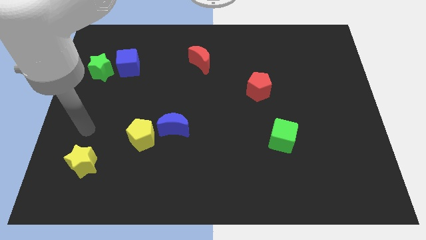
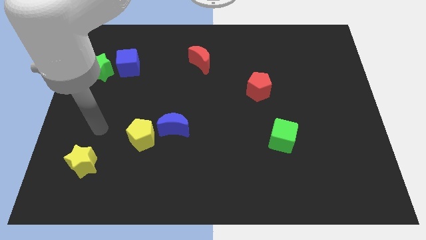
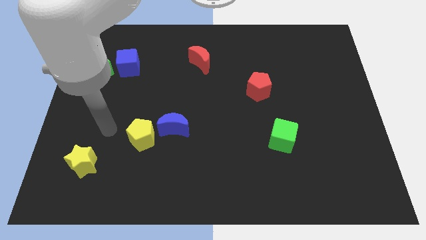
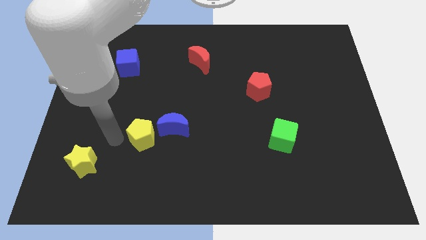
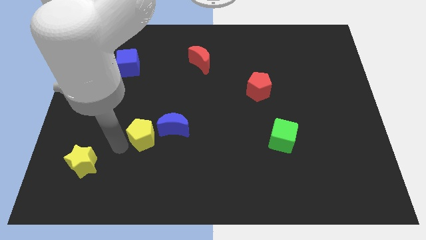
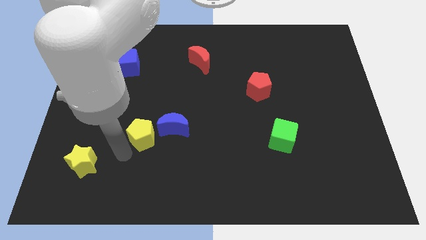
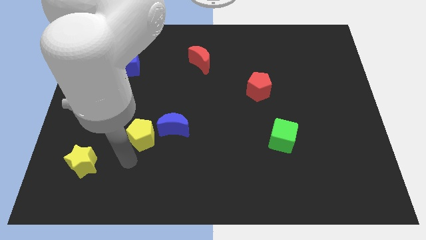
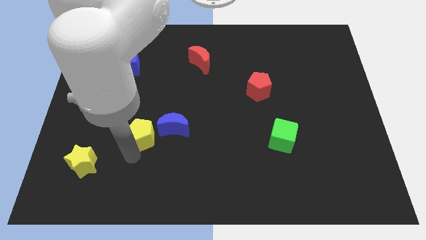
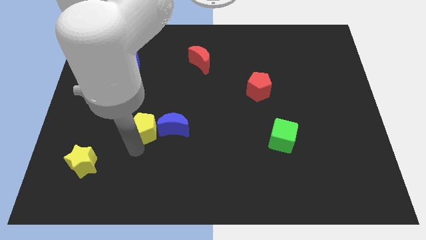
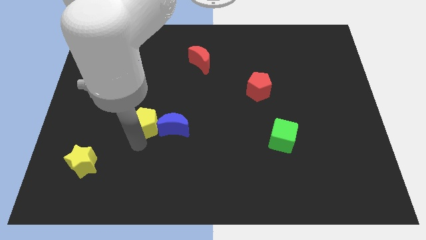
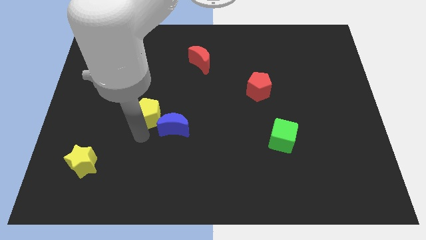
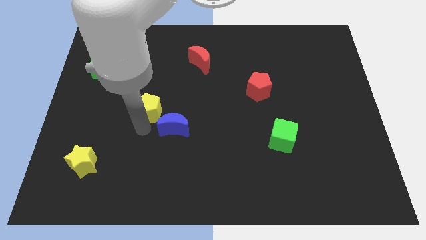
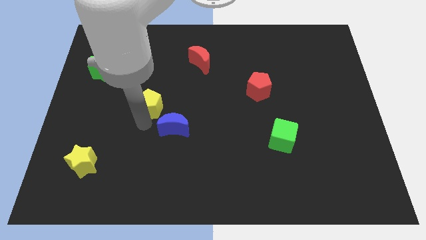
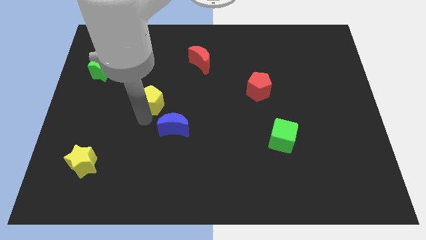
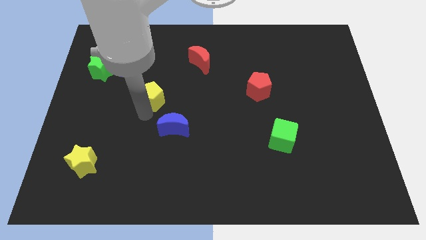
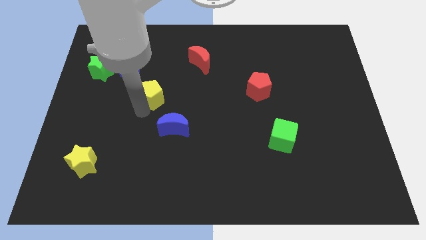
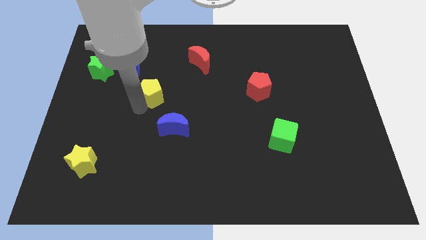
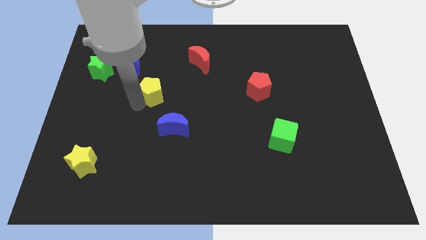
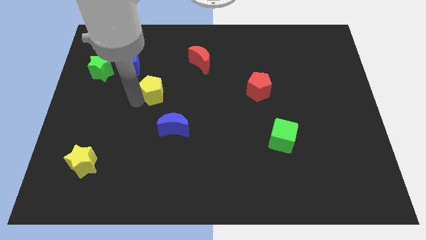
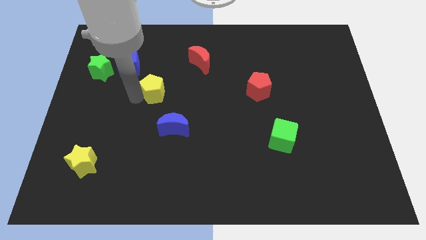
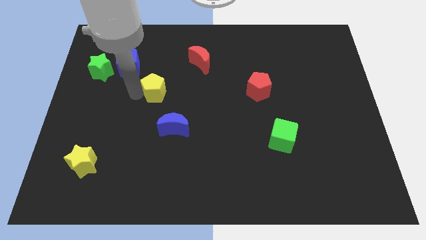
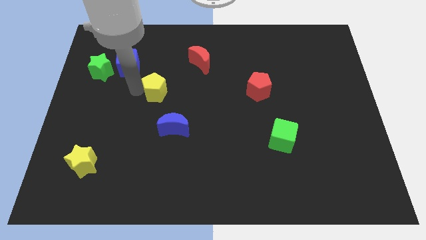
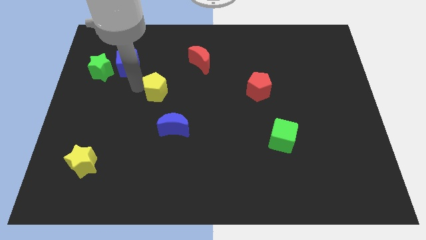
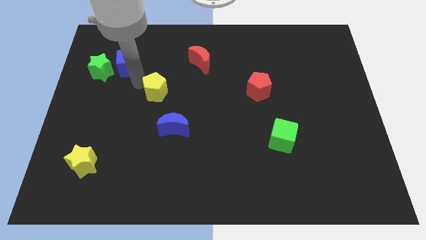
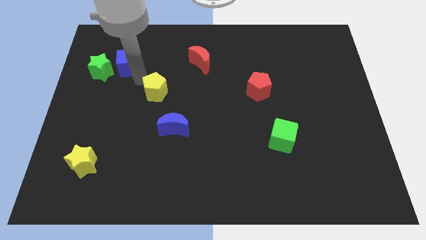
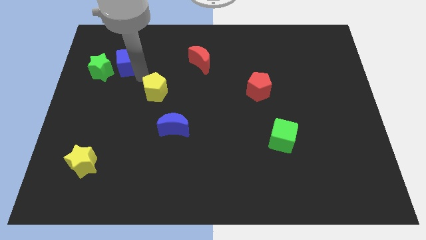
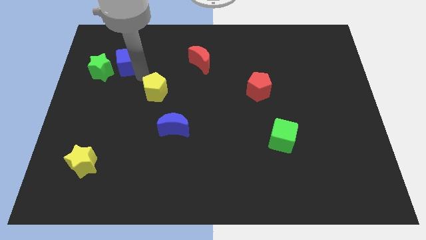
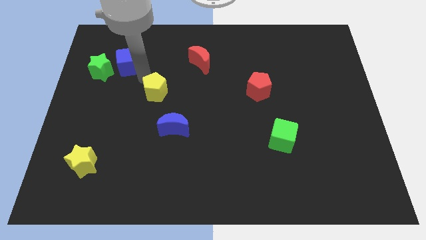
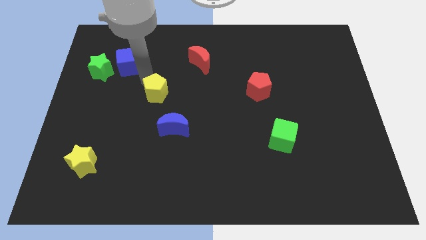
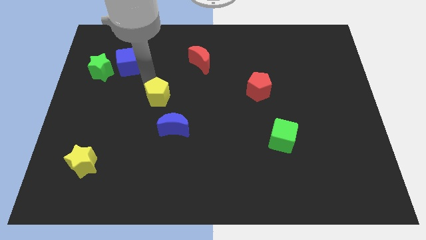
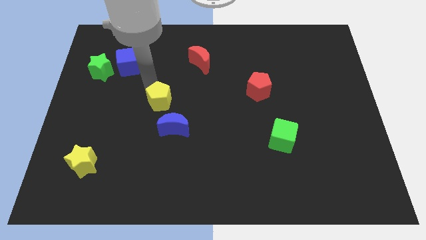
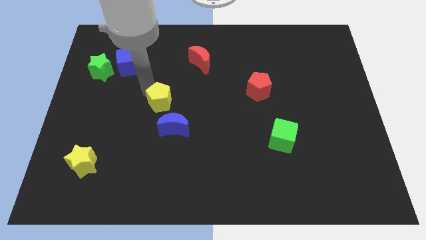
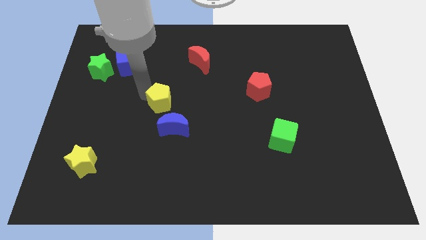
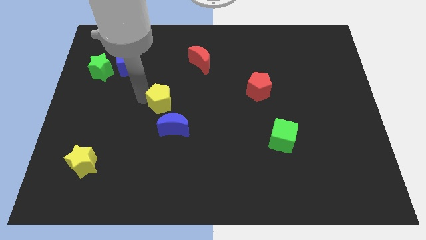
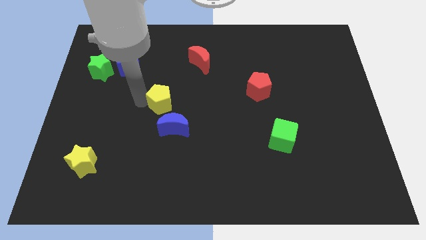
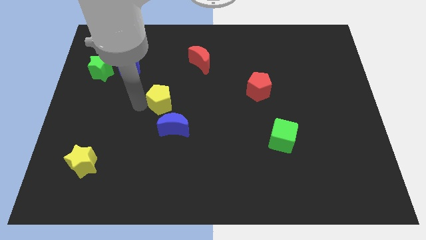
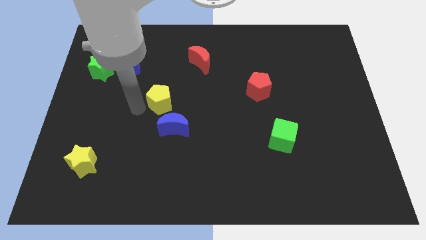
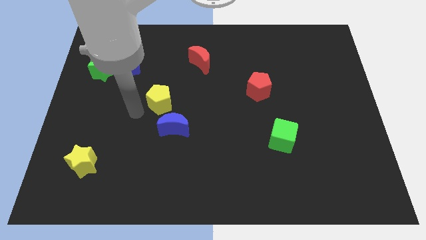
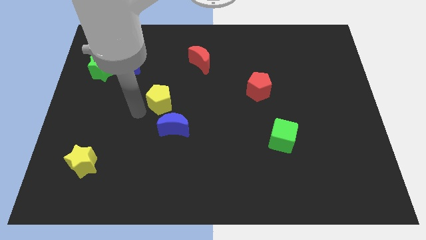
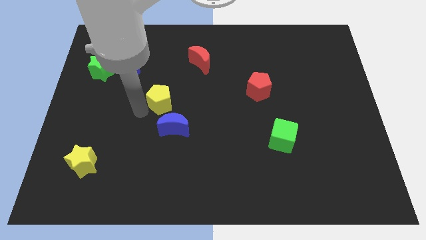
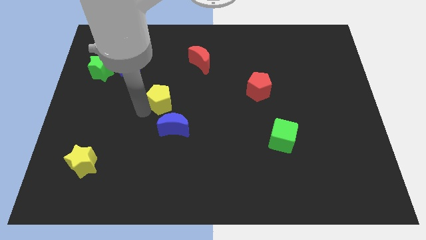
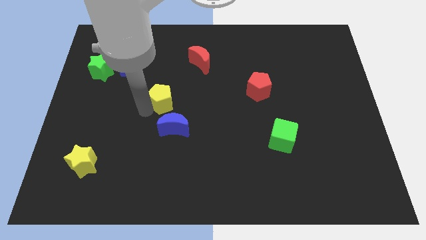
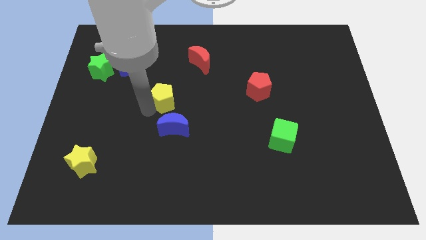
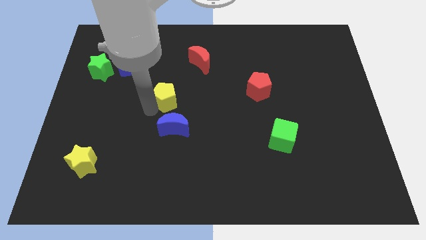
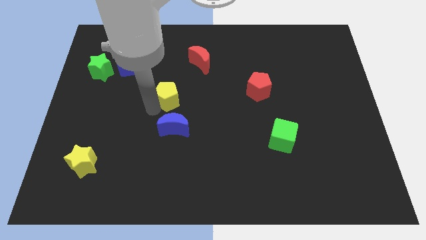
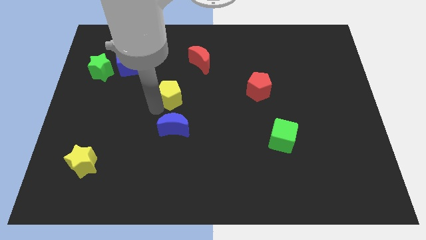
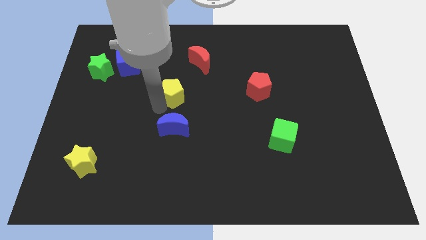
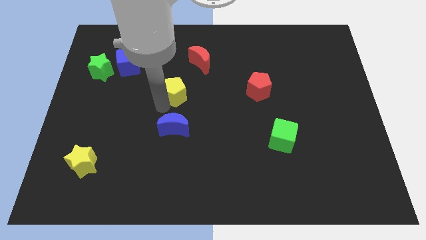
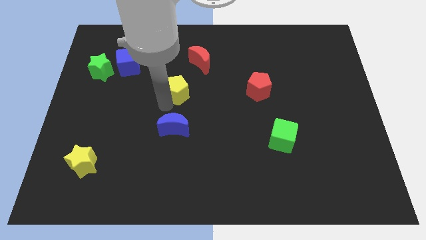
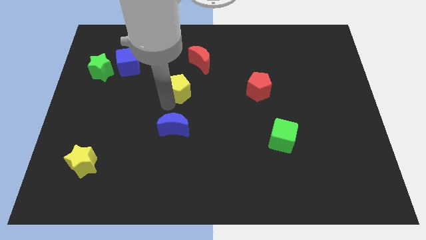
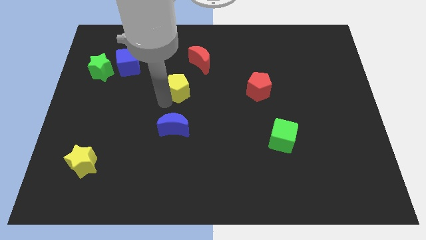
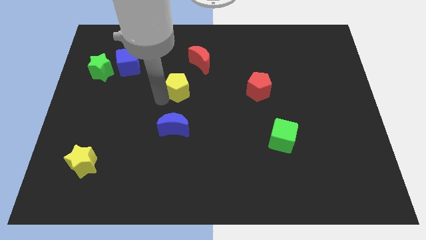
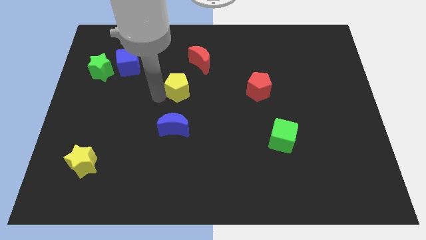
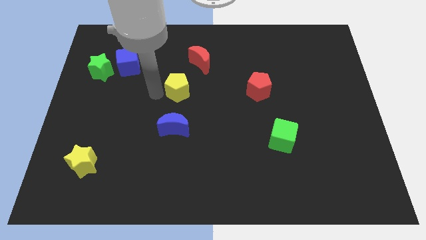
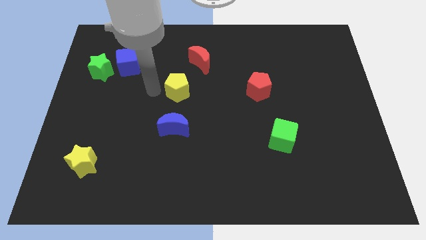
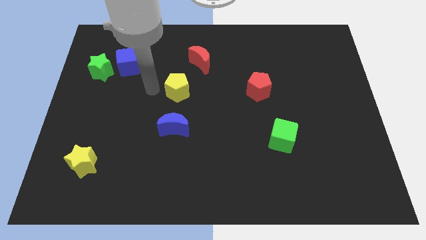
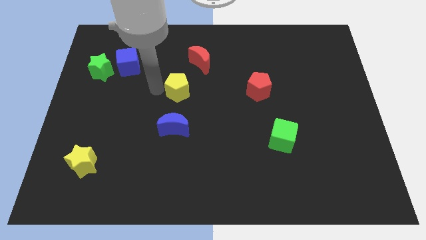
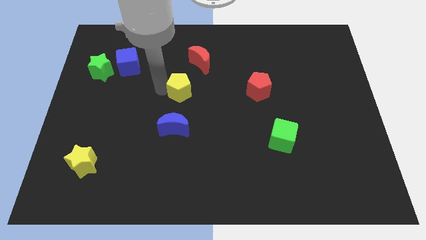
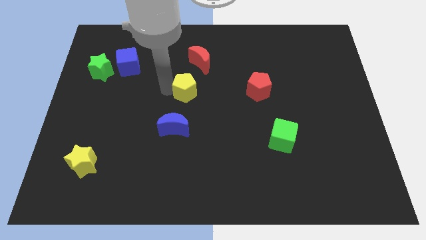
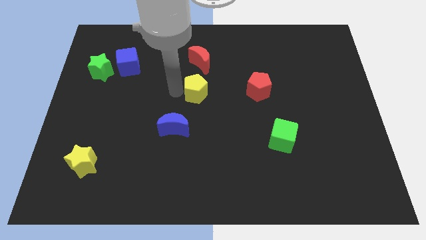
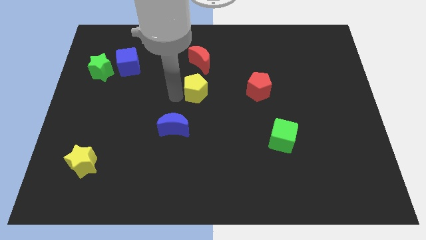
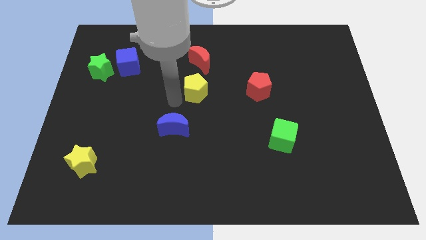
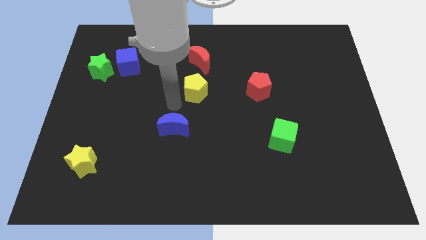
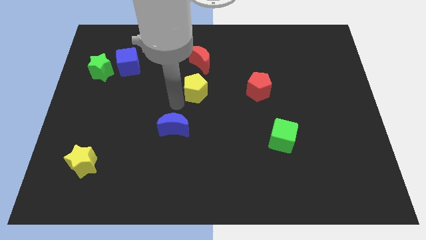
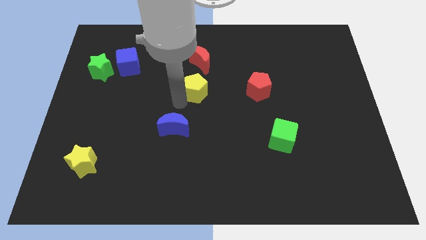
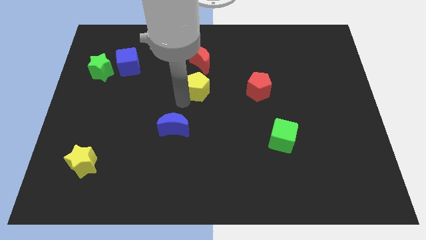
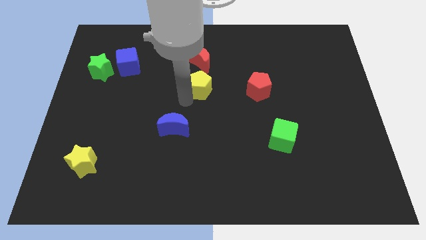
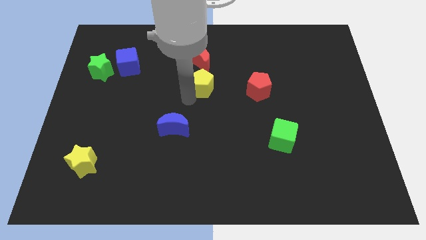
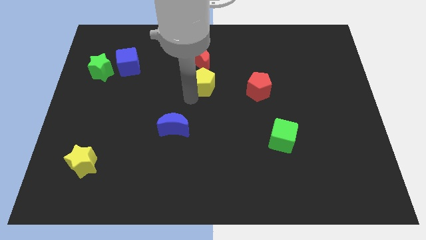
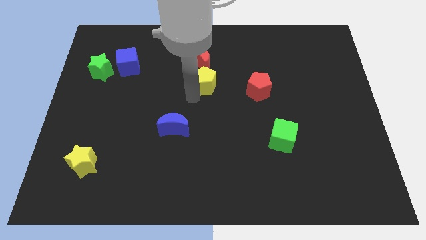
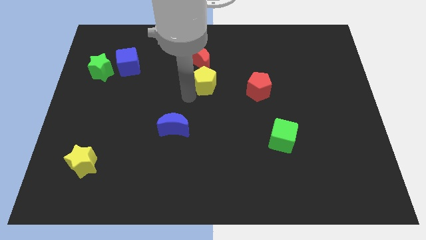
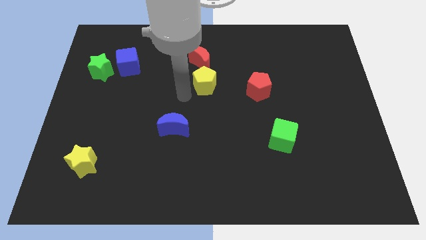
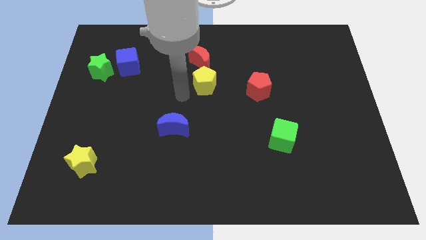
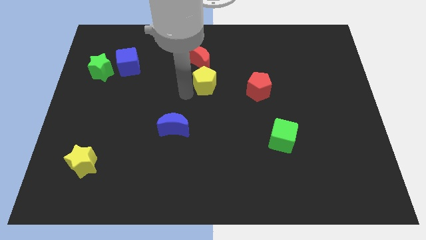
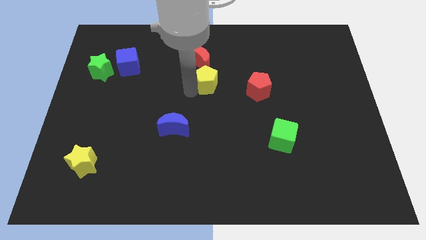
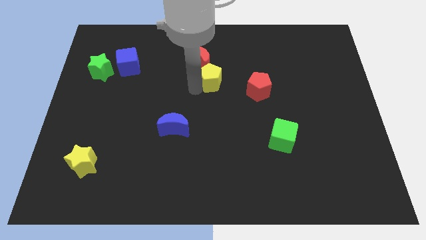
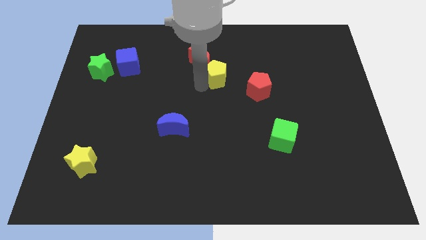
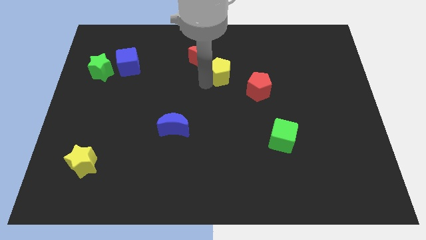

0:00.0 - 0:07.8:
move the yellow pentagon to the right side of the red moon
